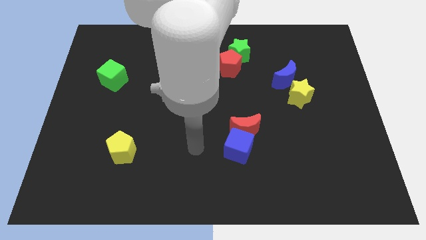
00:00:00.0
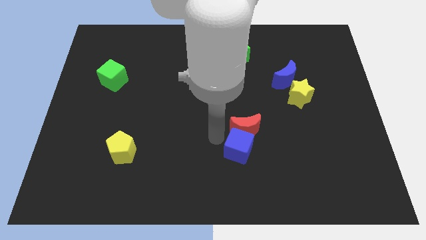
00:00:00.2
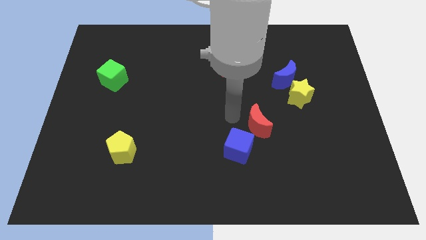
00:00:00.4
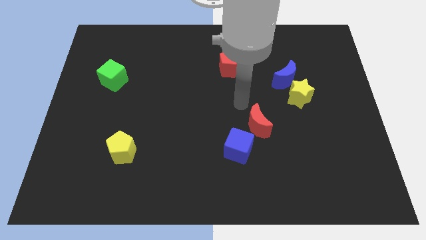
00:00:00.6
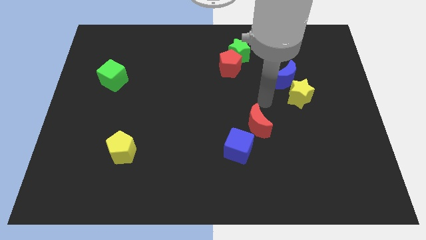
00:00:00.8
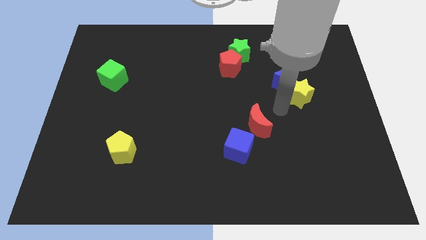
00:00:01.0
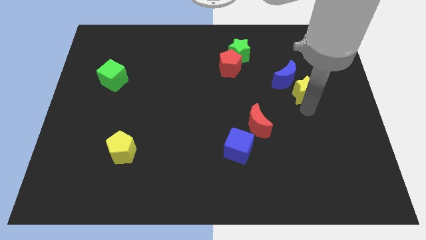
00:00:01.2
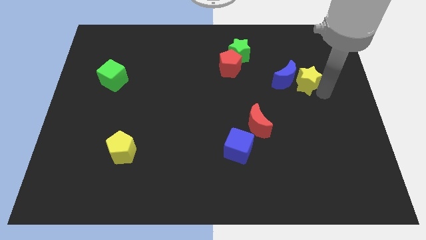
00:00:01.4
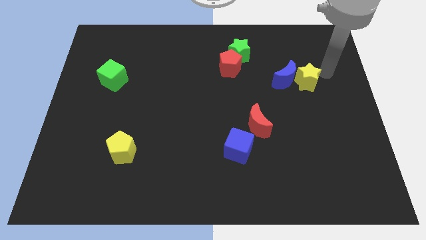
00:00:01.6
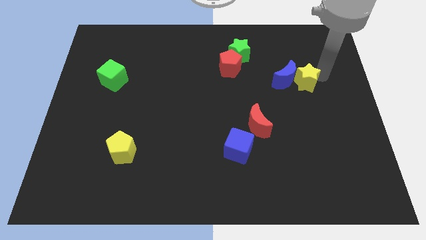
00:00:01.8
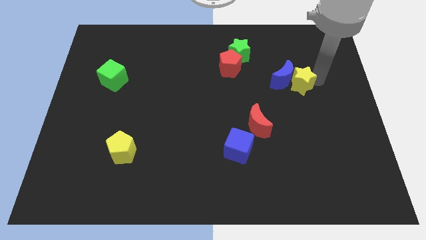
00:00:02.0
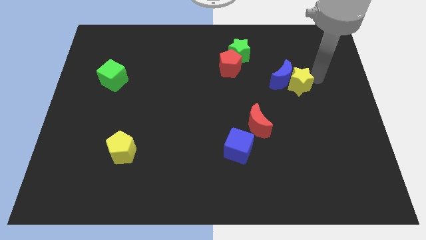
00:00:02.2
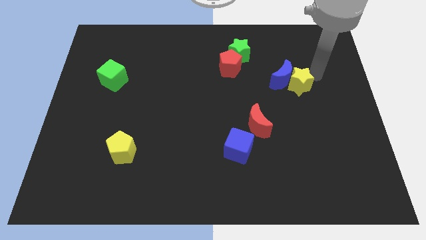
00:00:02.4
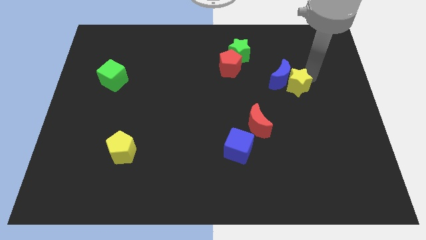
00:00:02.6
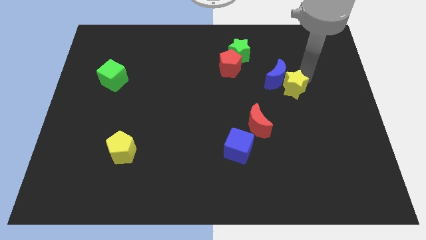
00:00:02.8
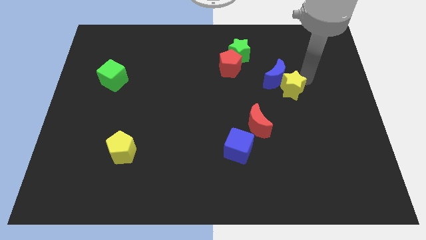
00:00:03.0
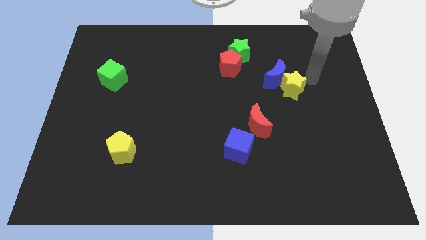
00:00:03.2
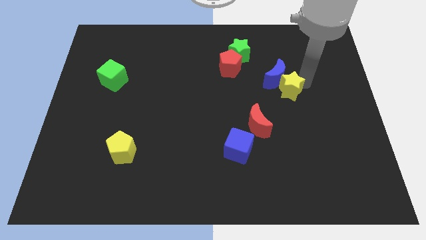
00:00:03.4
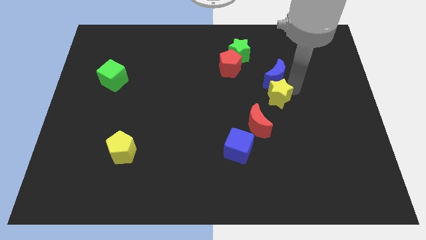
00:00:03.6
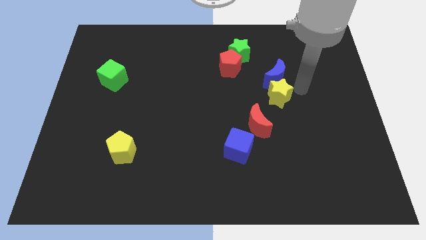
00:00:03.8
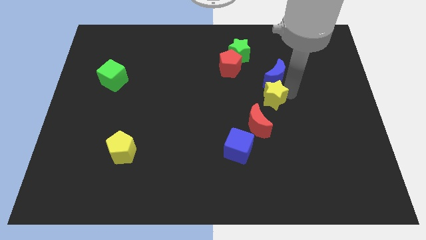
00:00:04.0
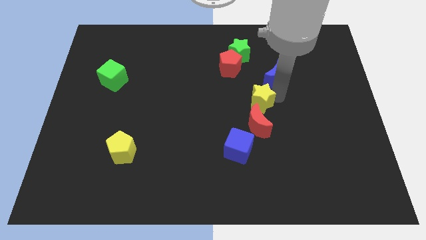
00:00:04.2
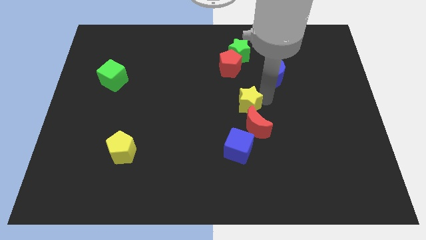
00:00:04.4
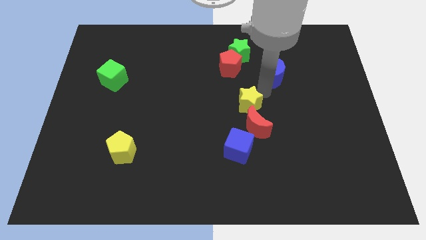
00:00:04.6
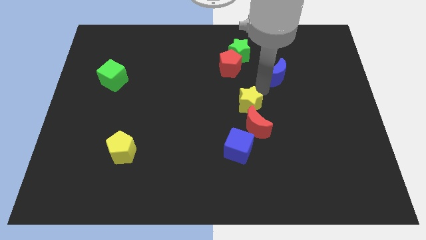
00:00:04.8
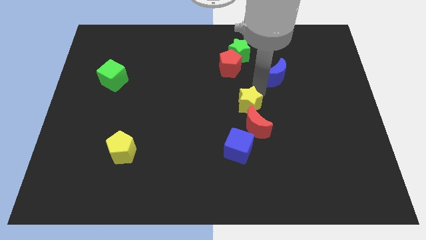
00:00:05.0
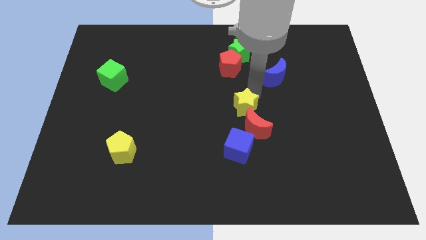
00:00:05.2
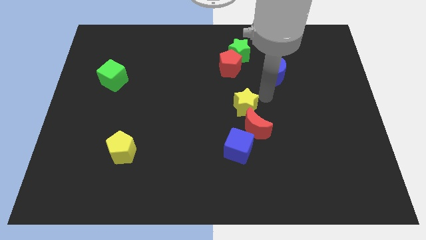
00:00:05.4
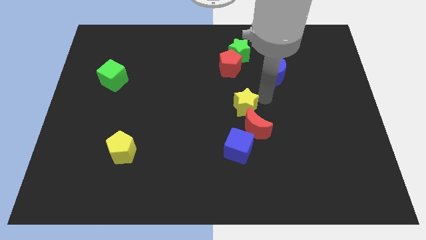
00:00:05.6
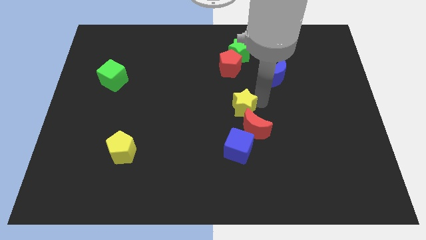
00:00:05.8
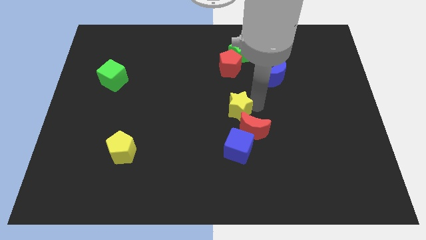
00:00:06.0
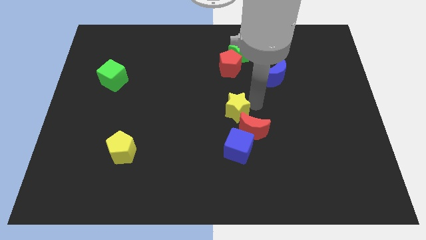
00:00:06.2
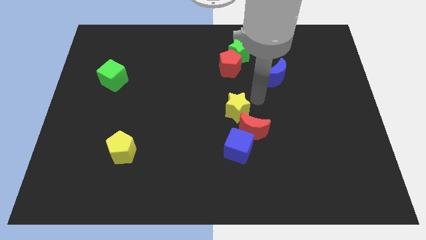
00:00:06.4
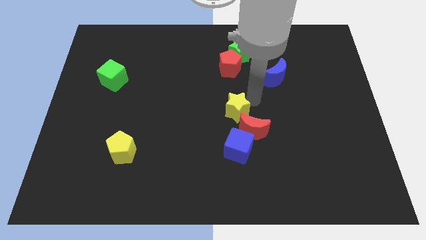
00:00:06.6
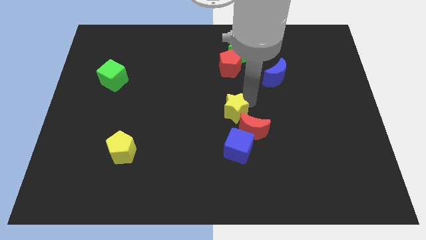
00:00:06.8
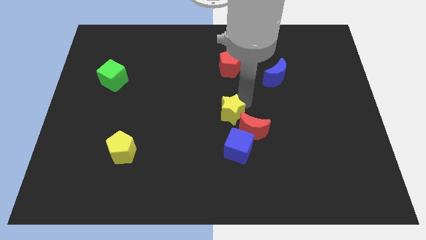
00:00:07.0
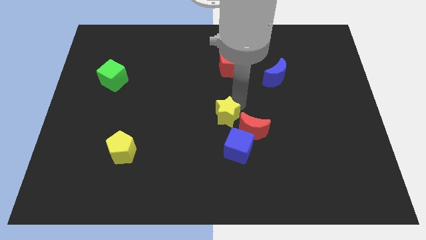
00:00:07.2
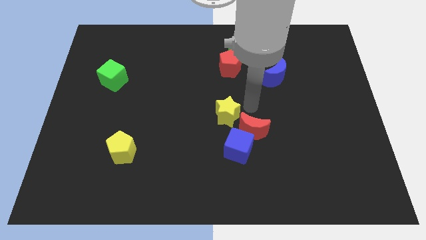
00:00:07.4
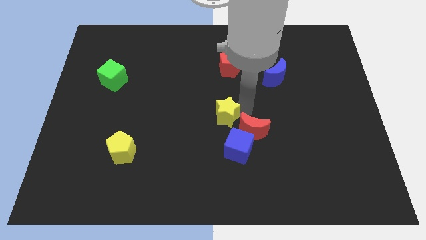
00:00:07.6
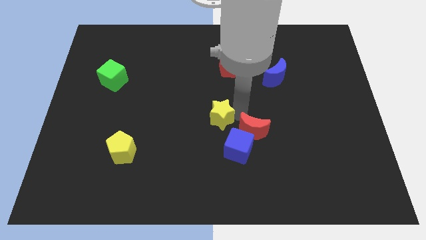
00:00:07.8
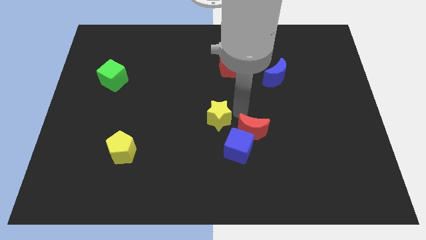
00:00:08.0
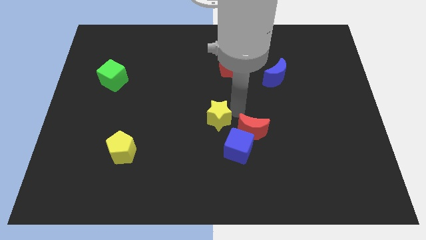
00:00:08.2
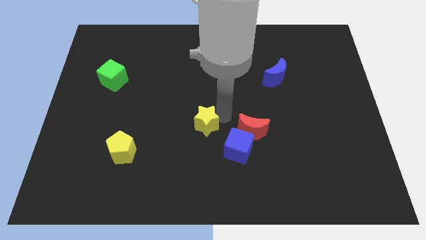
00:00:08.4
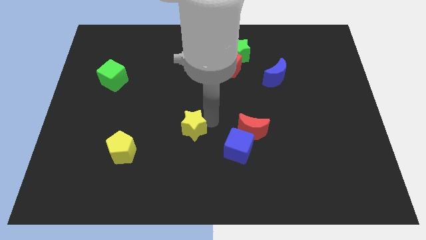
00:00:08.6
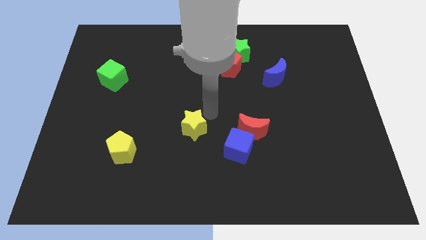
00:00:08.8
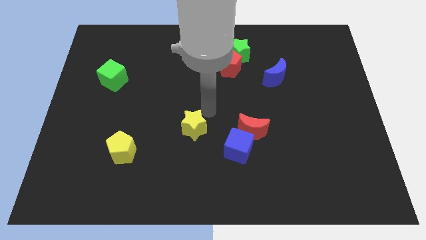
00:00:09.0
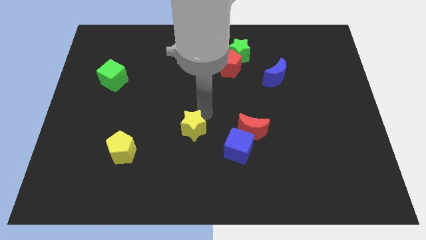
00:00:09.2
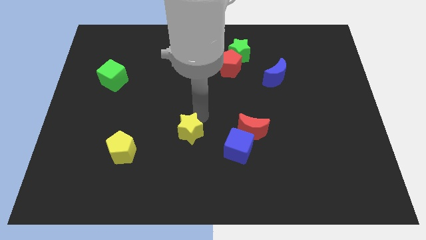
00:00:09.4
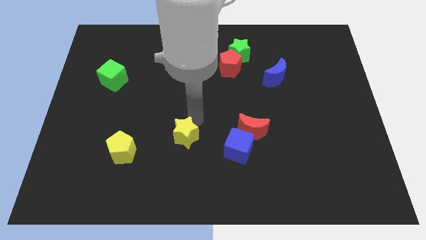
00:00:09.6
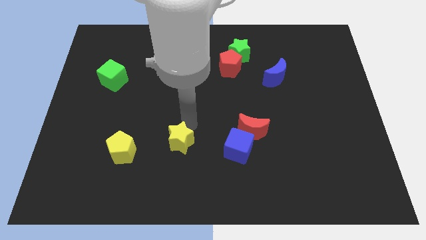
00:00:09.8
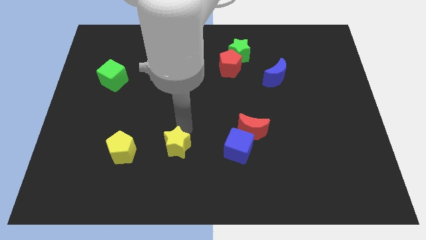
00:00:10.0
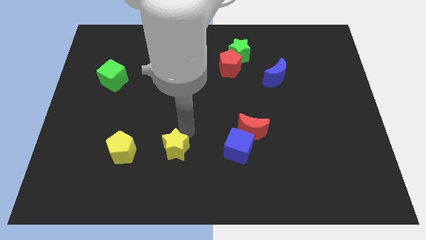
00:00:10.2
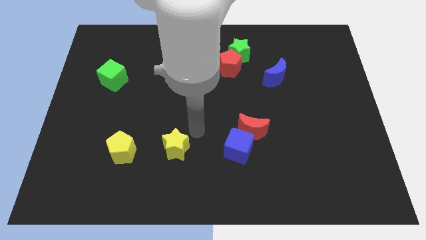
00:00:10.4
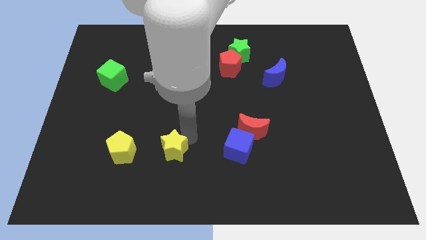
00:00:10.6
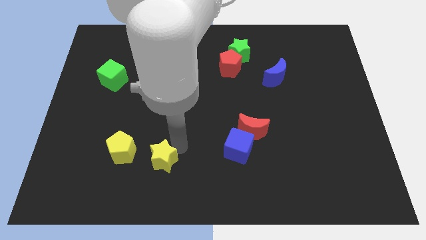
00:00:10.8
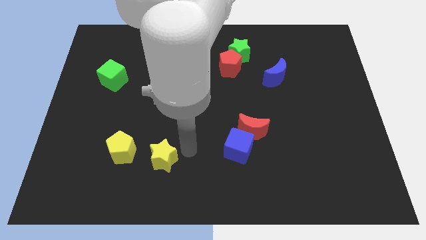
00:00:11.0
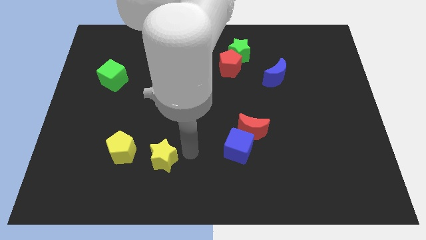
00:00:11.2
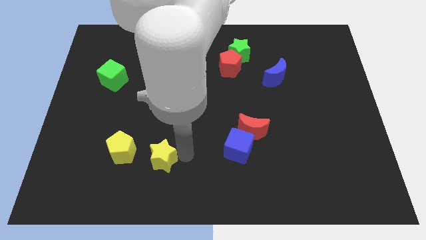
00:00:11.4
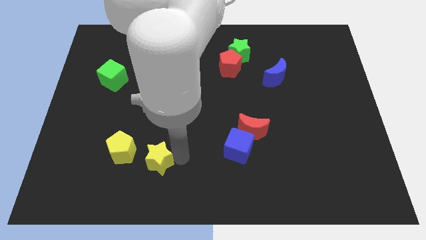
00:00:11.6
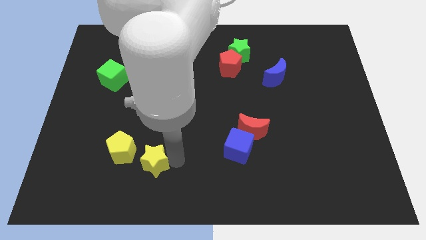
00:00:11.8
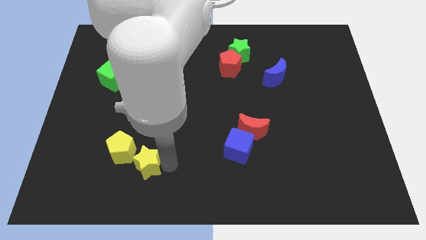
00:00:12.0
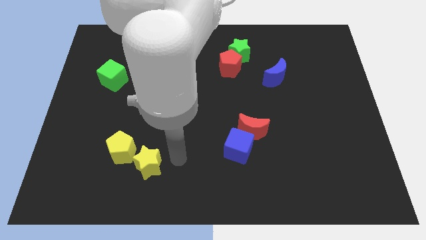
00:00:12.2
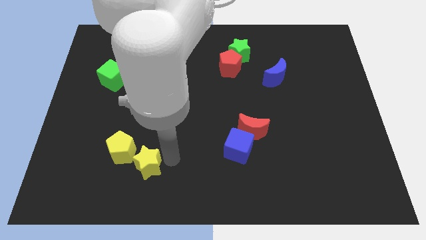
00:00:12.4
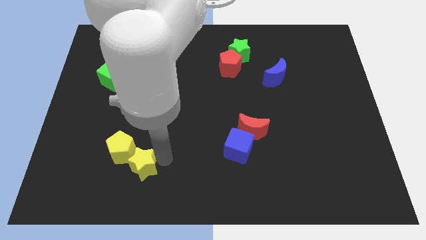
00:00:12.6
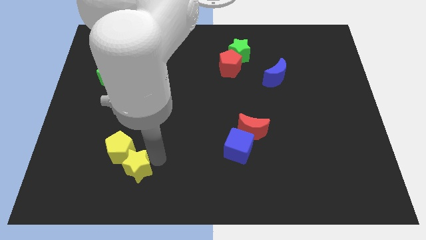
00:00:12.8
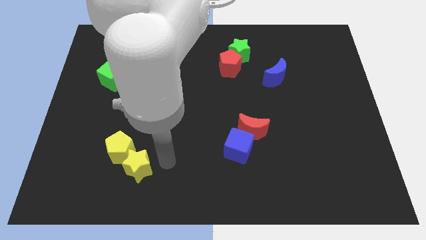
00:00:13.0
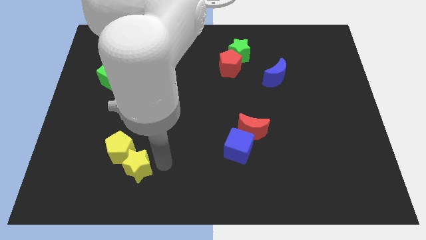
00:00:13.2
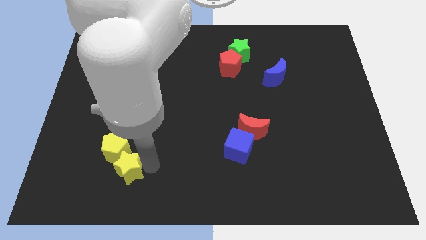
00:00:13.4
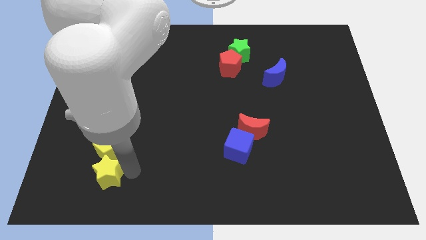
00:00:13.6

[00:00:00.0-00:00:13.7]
put the yellow star to the bottom left side of the yellow pentagon
